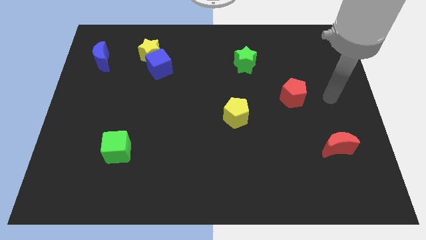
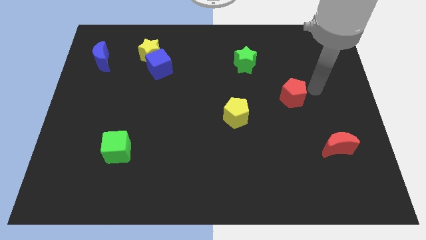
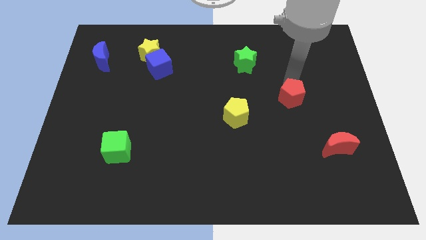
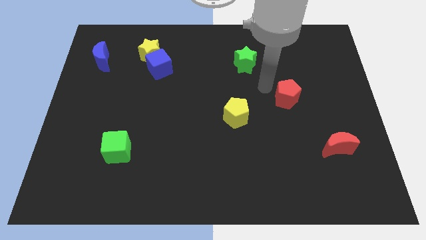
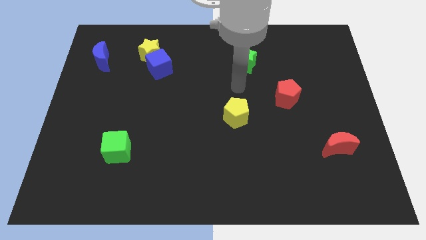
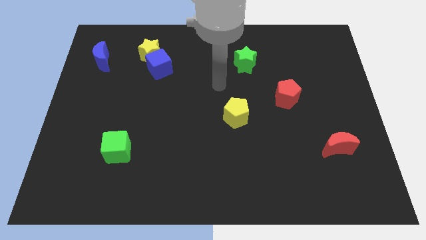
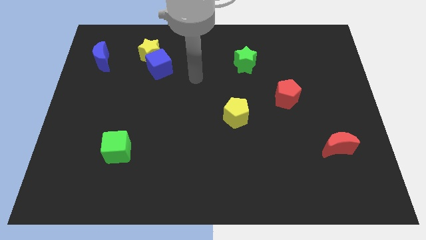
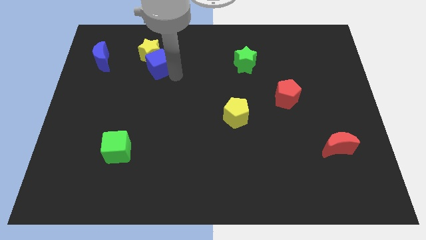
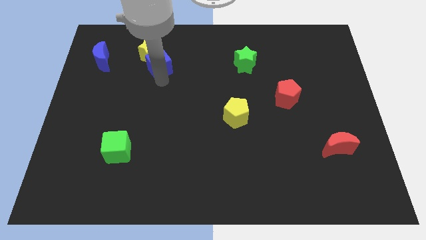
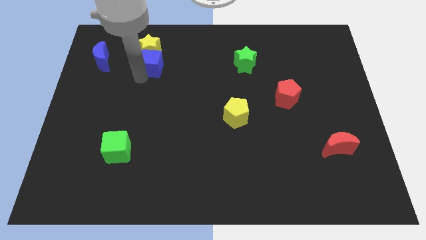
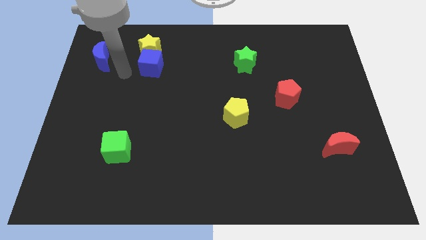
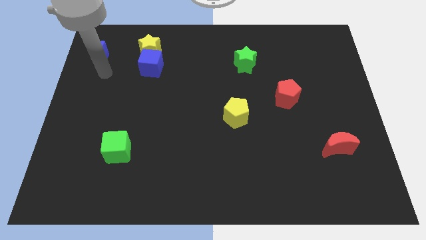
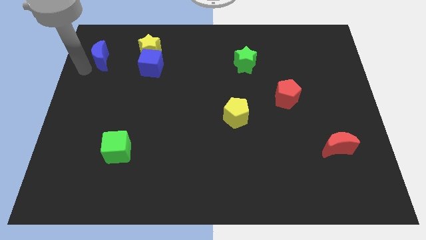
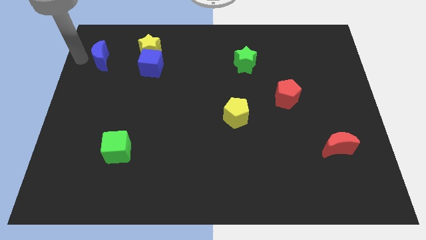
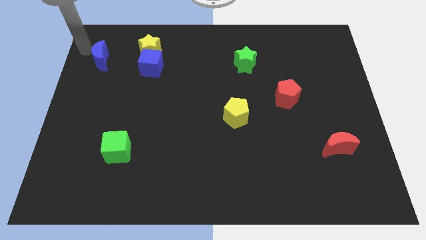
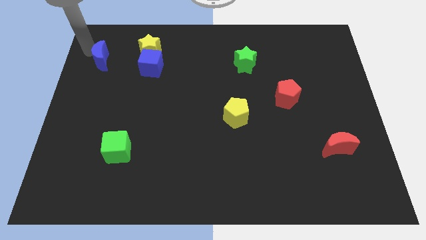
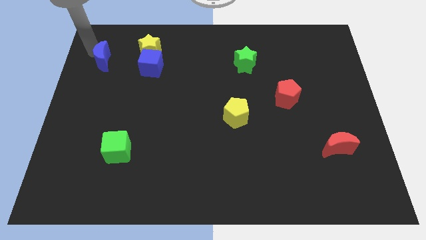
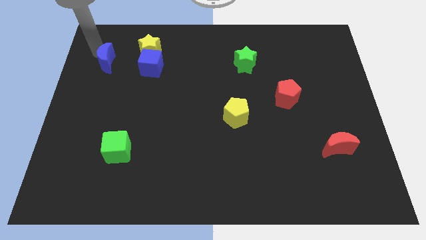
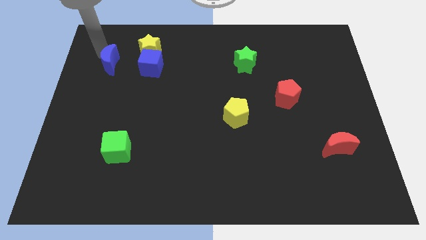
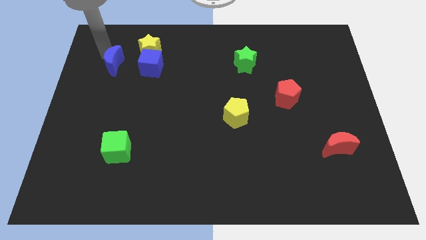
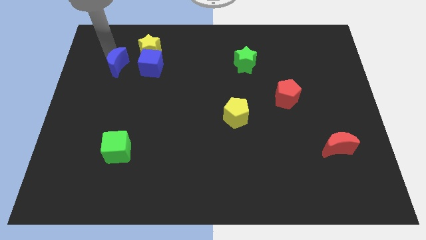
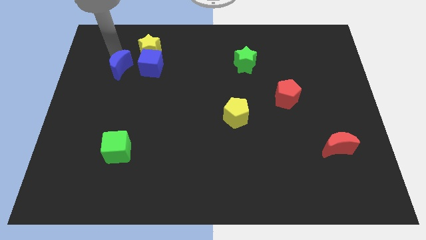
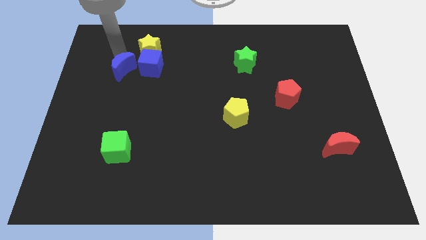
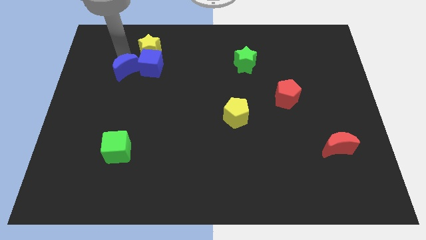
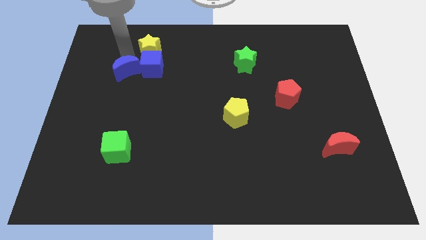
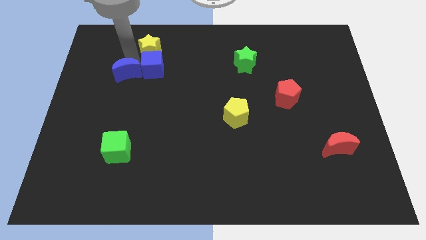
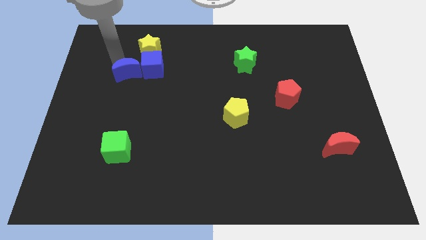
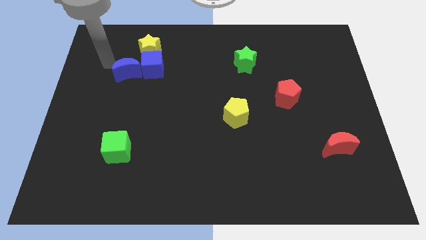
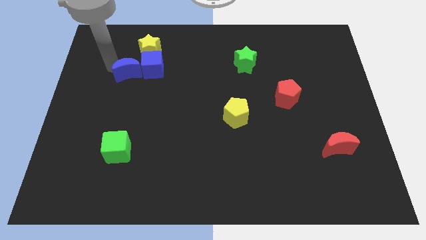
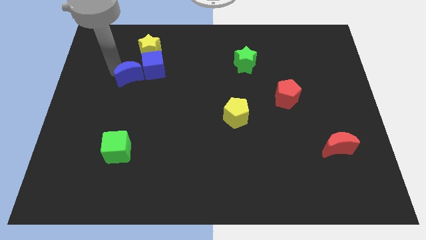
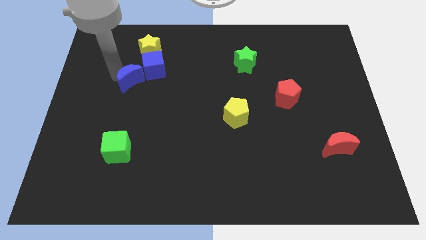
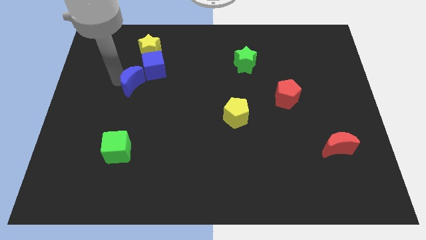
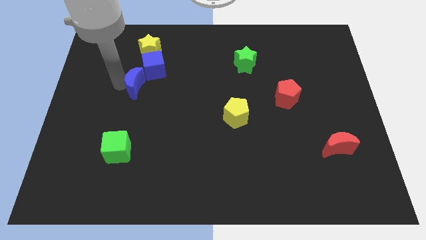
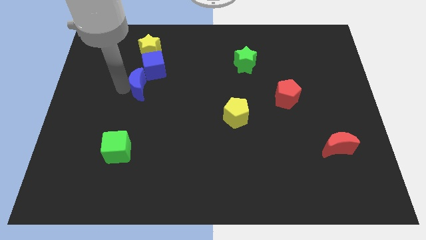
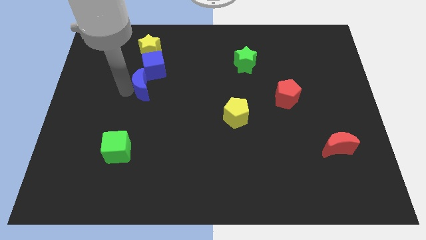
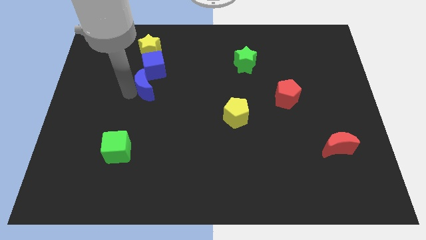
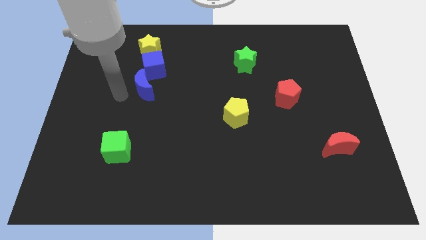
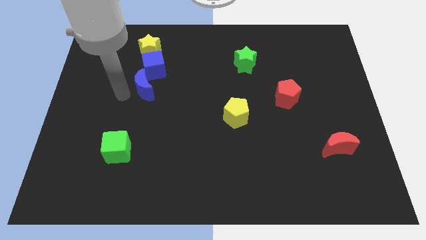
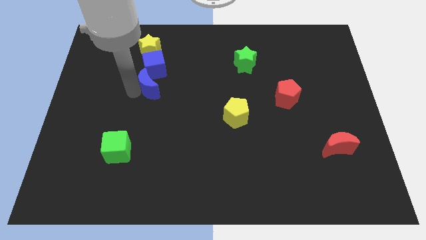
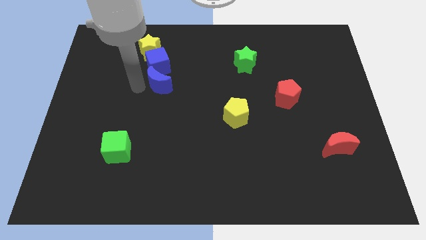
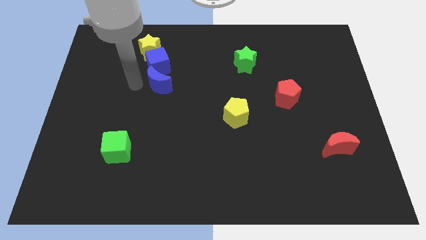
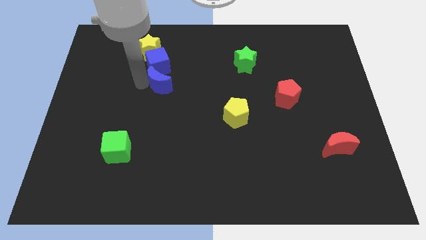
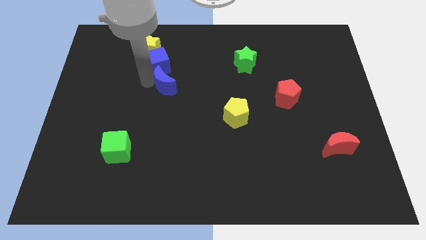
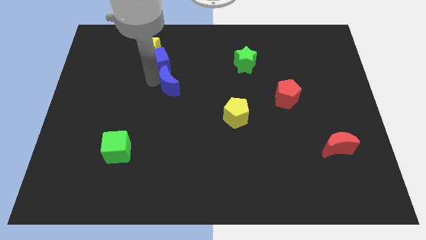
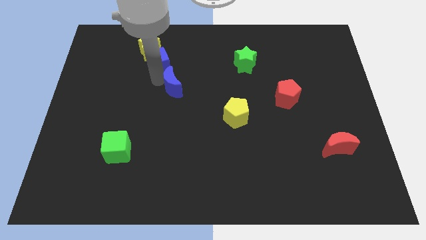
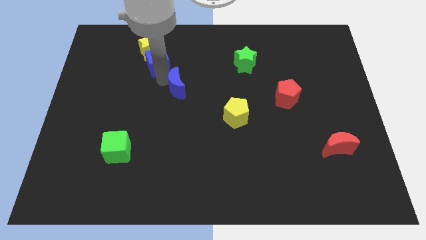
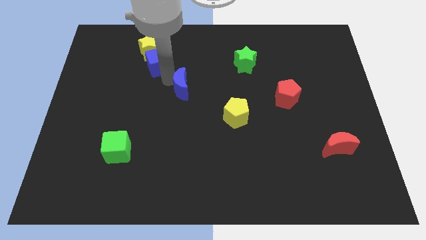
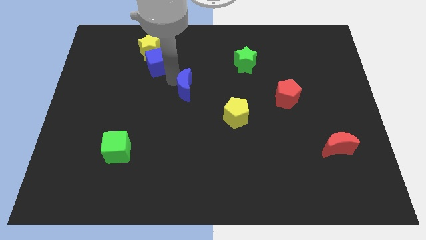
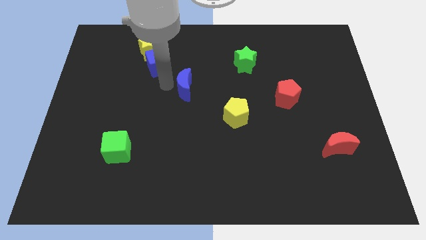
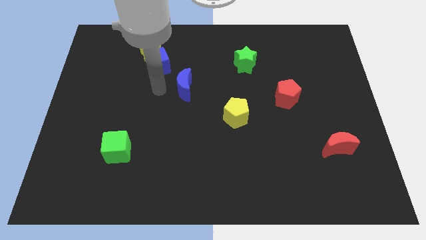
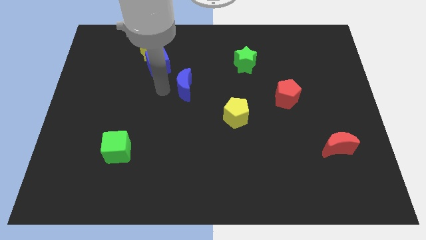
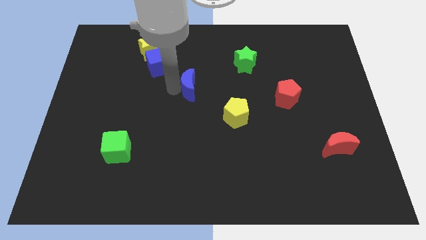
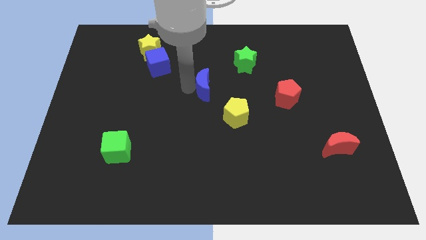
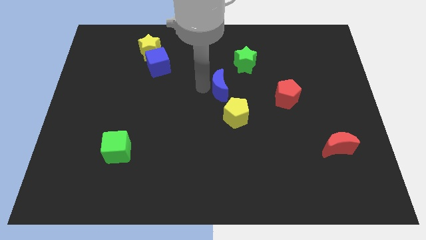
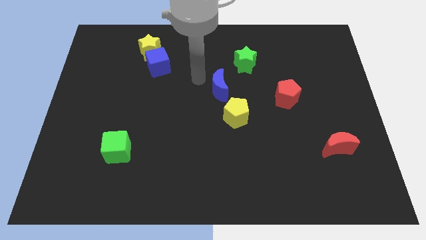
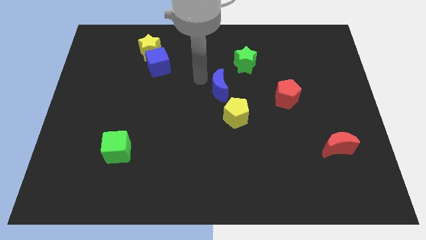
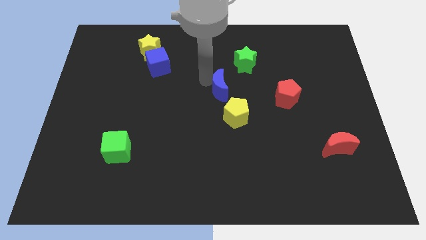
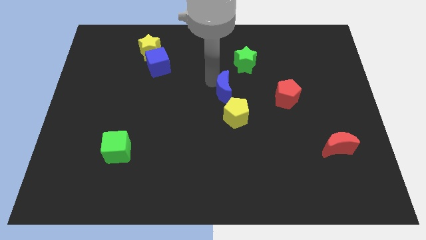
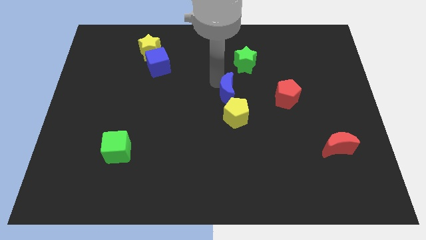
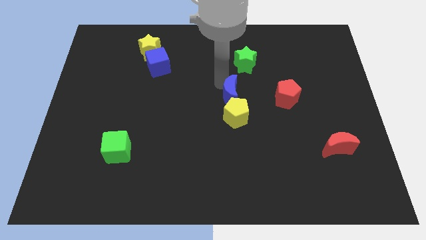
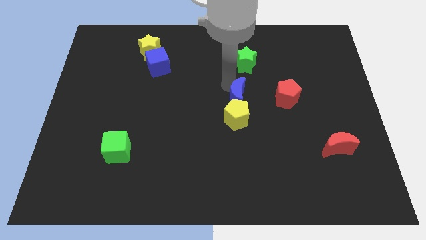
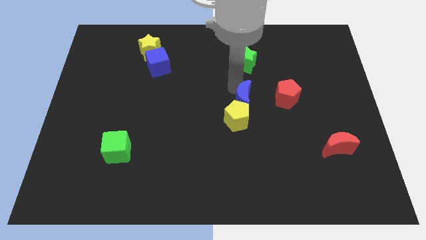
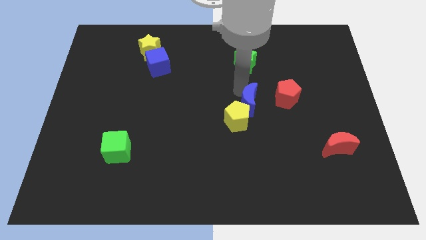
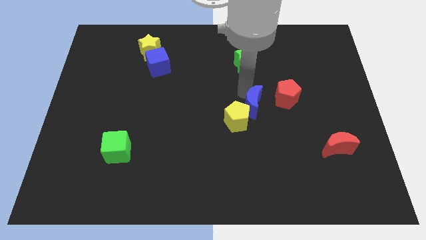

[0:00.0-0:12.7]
put the blue moon to the right of the yellow pentagon

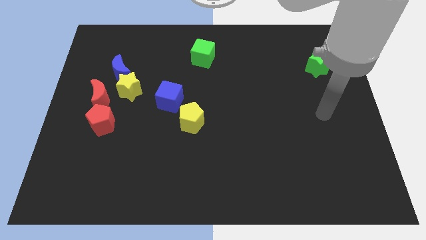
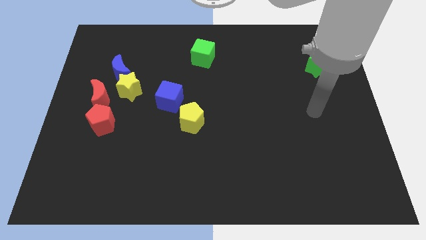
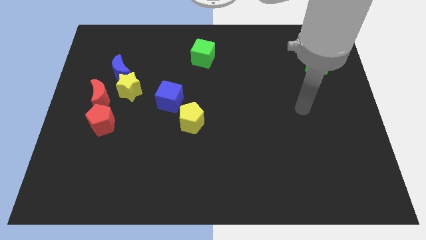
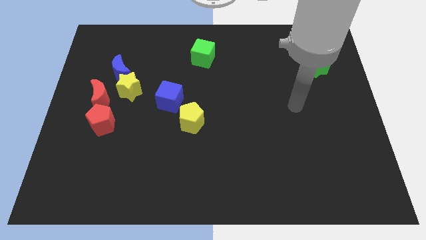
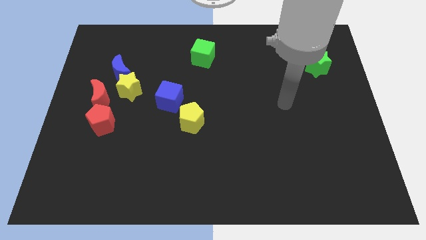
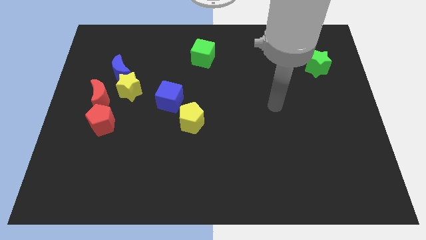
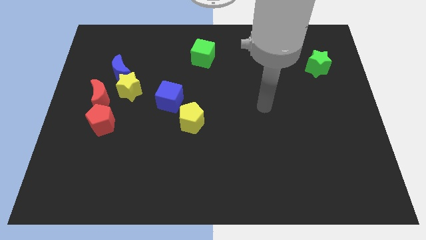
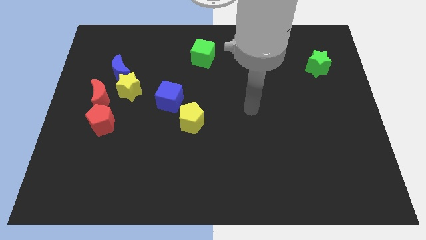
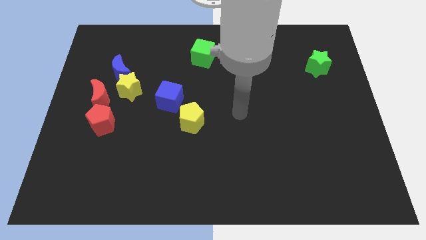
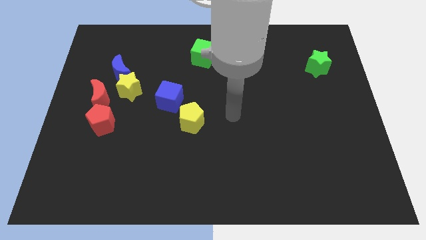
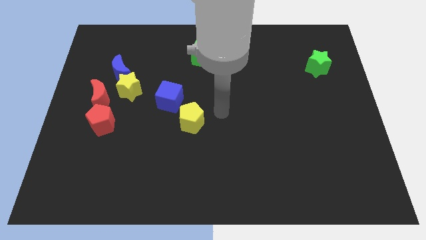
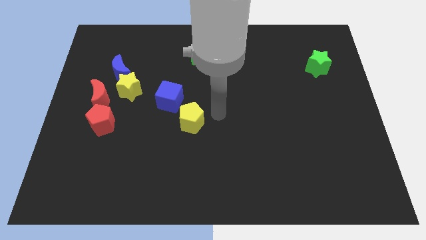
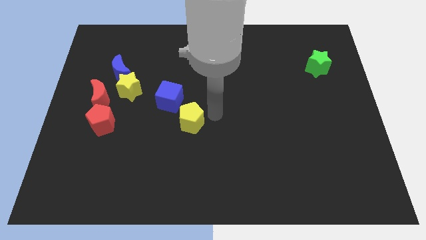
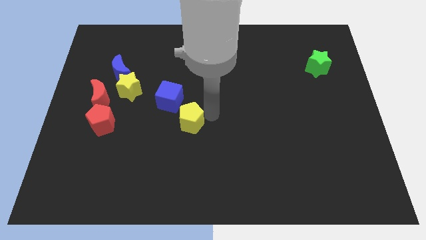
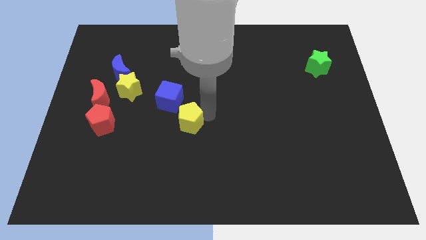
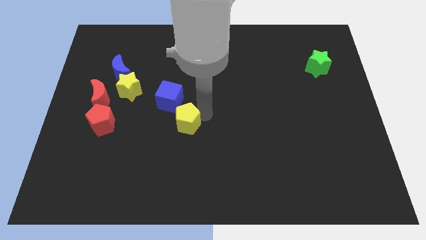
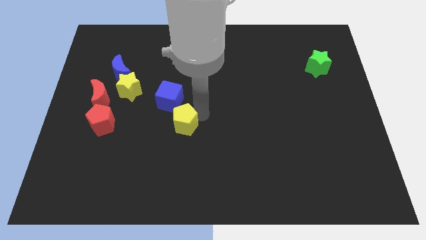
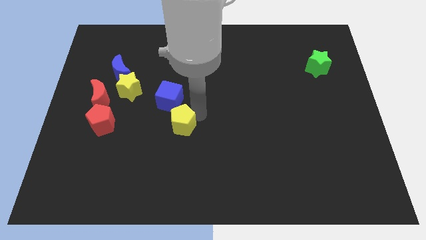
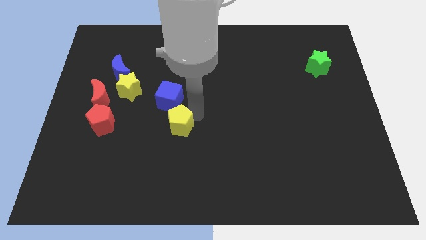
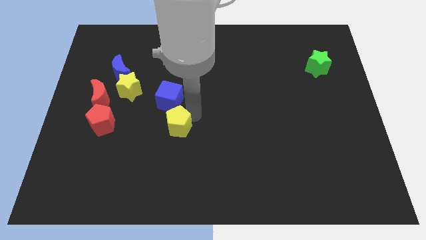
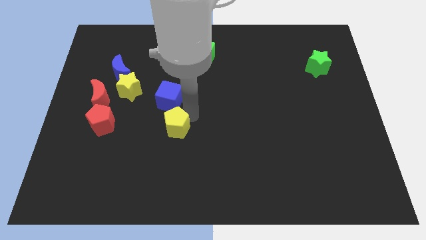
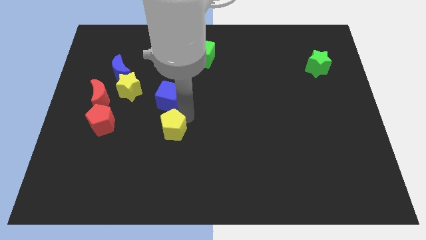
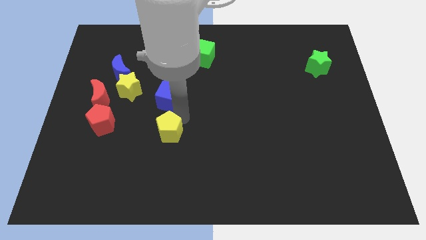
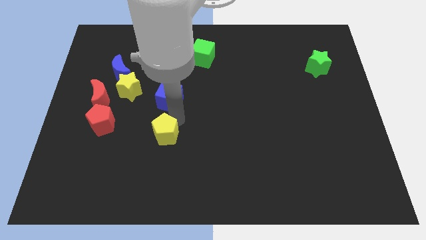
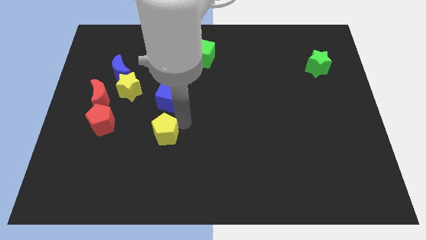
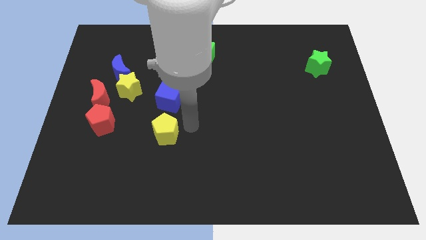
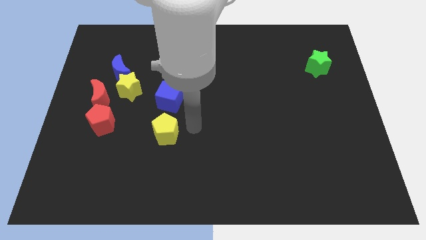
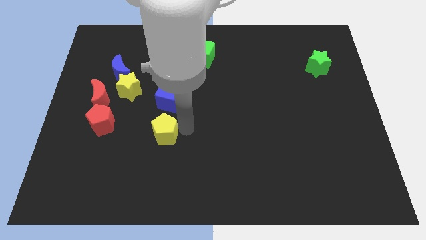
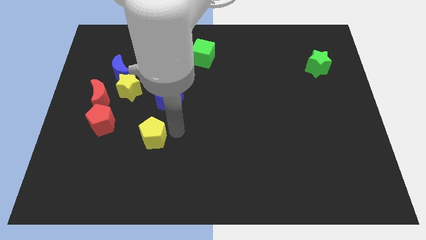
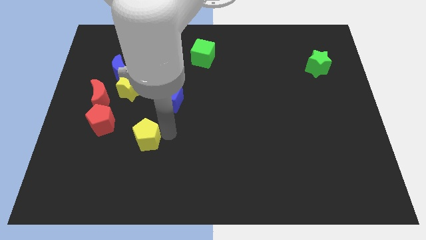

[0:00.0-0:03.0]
put the yellow pentagon to the bottom right side of the red pentagon
